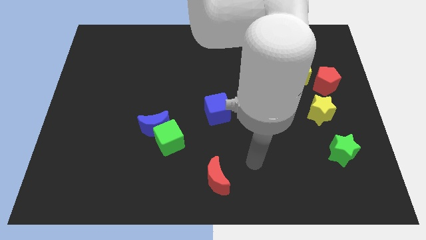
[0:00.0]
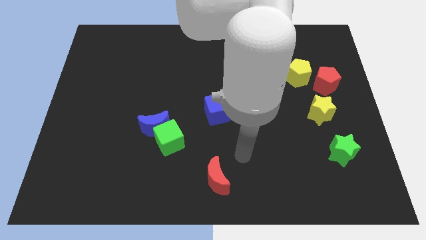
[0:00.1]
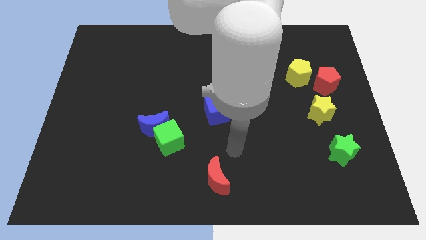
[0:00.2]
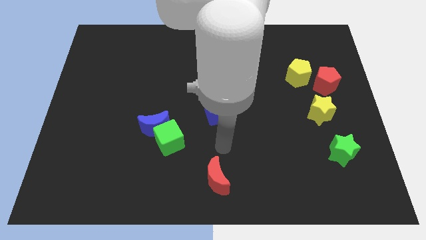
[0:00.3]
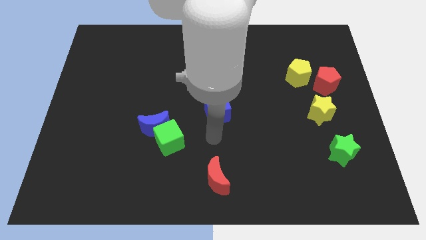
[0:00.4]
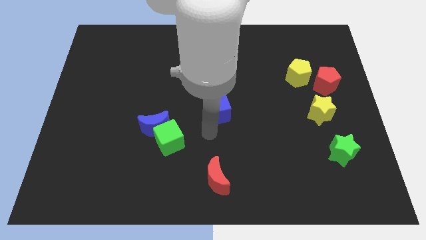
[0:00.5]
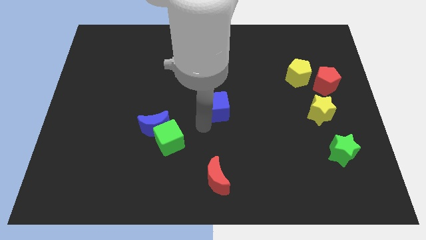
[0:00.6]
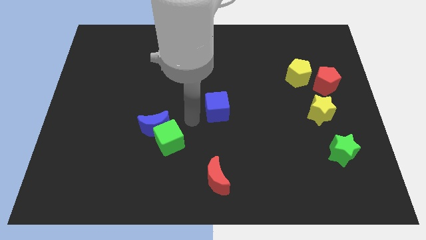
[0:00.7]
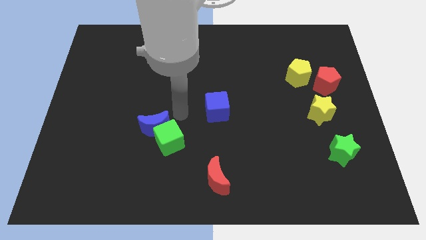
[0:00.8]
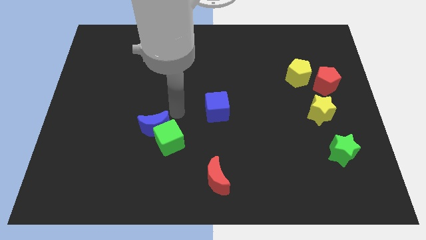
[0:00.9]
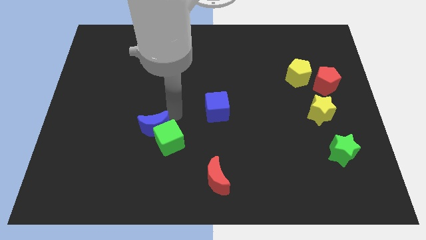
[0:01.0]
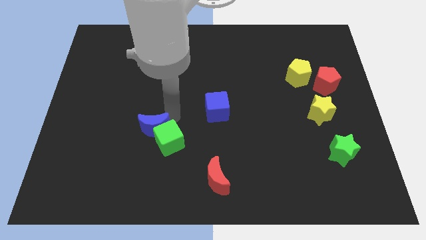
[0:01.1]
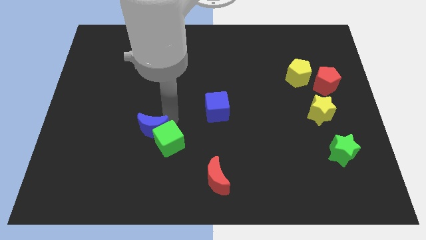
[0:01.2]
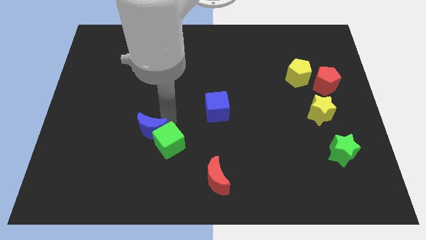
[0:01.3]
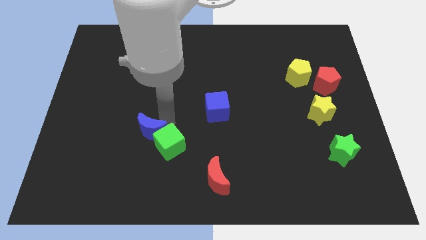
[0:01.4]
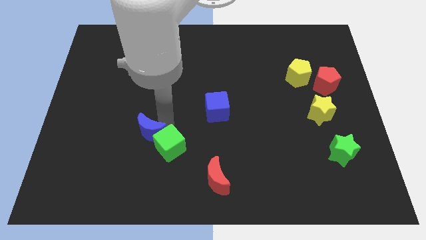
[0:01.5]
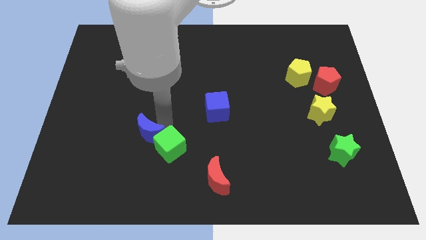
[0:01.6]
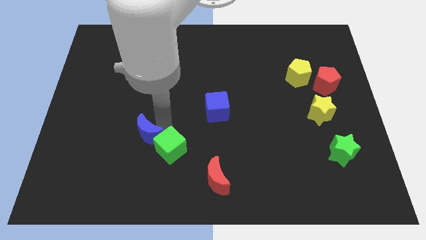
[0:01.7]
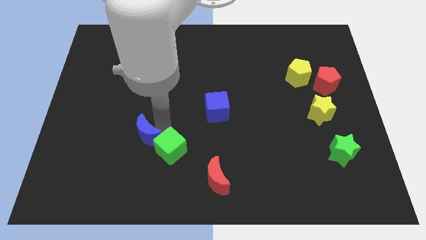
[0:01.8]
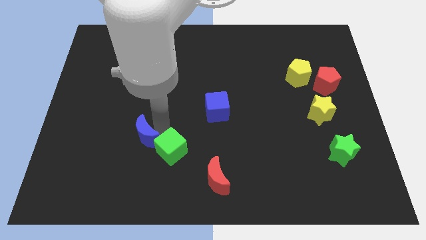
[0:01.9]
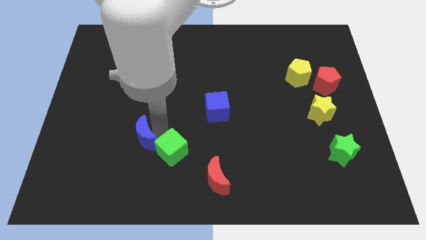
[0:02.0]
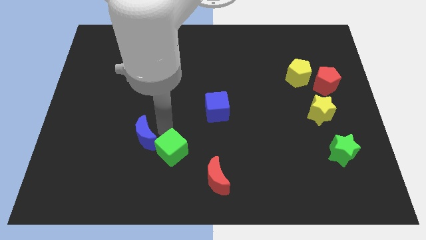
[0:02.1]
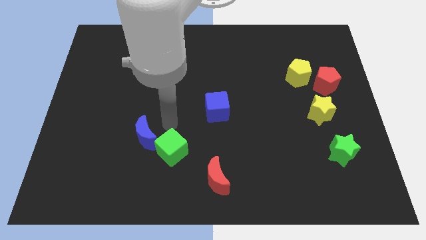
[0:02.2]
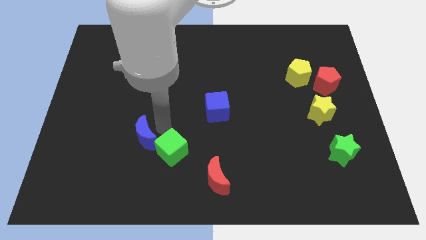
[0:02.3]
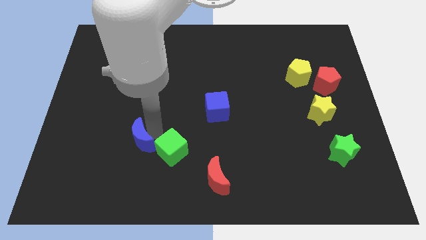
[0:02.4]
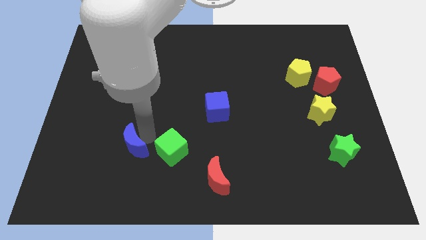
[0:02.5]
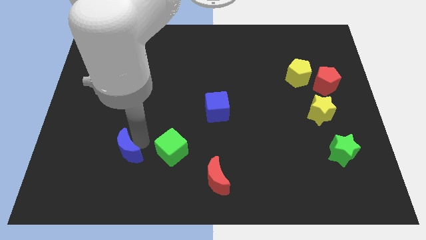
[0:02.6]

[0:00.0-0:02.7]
slightly slide the blue moon downwards and left

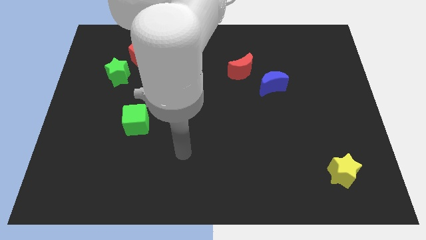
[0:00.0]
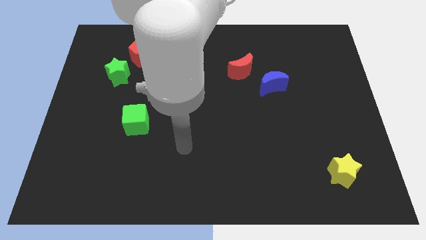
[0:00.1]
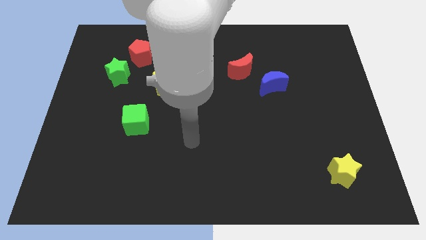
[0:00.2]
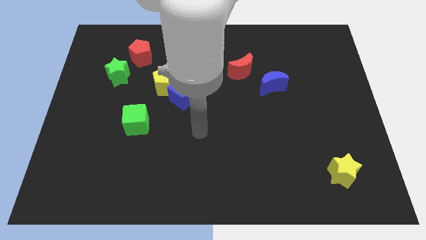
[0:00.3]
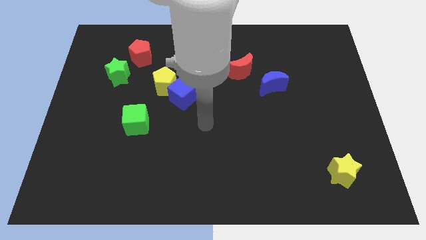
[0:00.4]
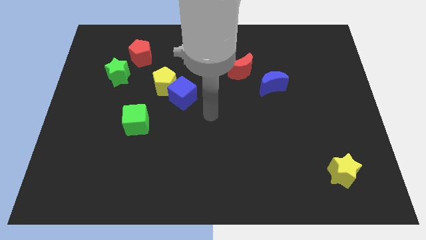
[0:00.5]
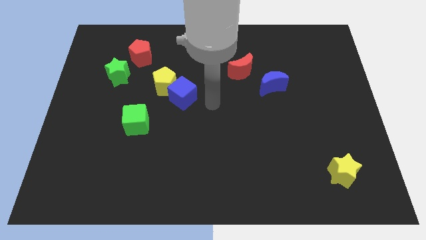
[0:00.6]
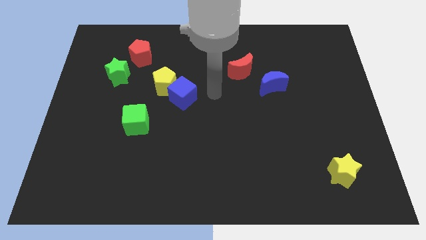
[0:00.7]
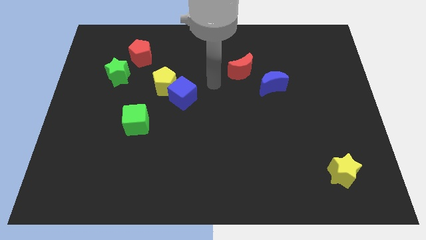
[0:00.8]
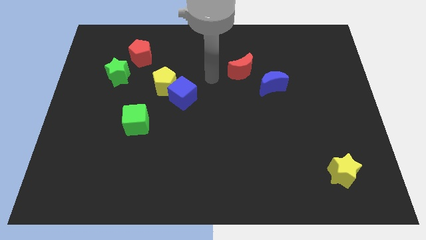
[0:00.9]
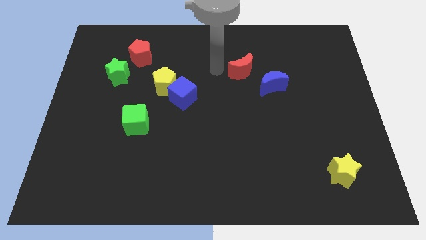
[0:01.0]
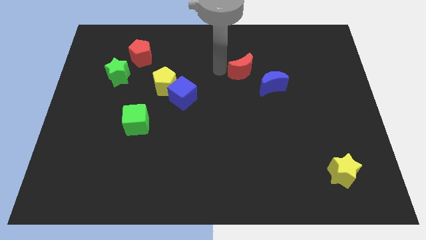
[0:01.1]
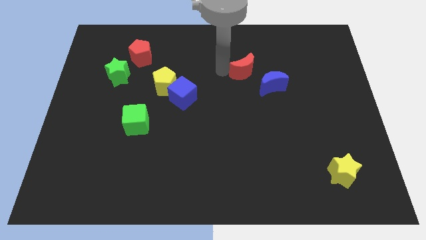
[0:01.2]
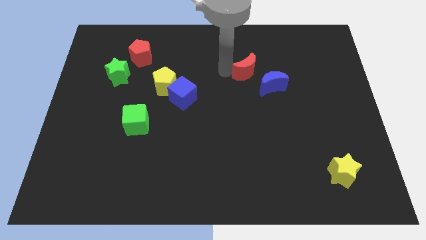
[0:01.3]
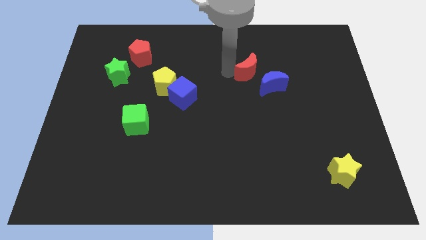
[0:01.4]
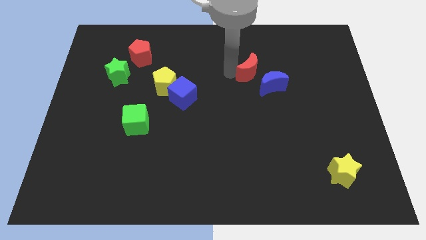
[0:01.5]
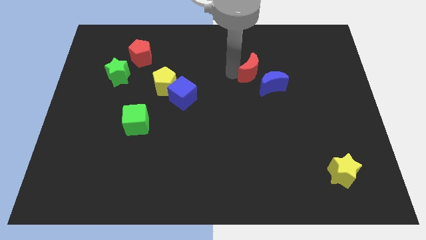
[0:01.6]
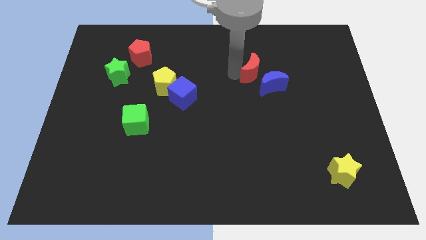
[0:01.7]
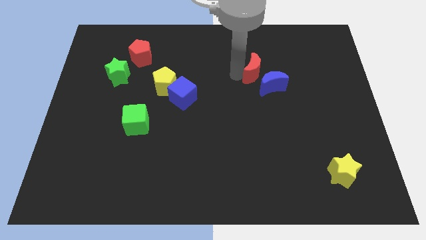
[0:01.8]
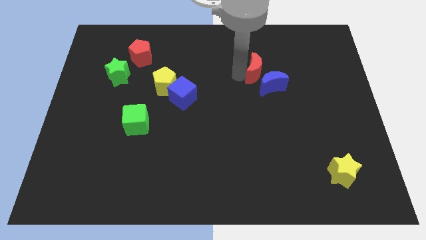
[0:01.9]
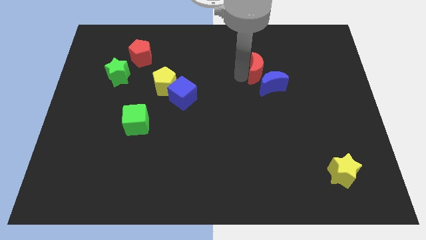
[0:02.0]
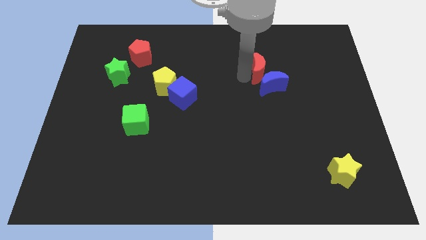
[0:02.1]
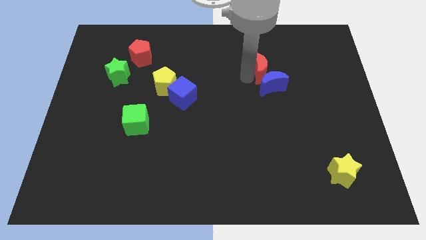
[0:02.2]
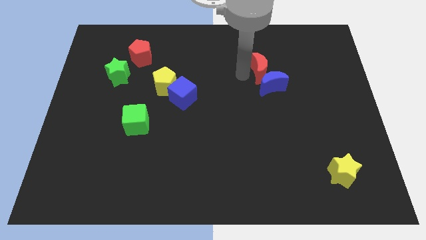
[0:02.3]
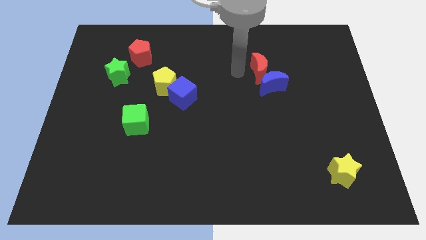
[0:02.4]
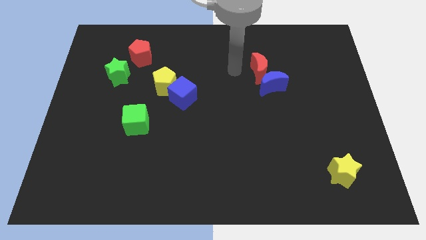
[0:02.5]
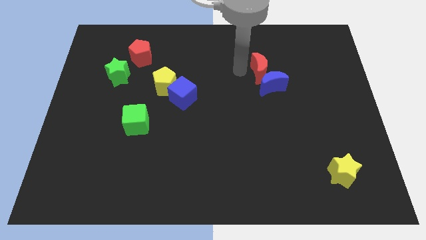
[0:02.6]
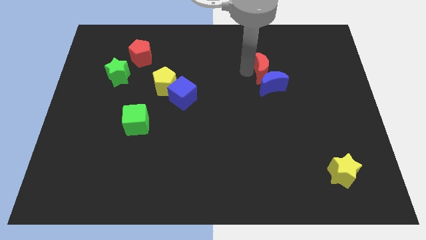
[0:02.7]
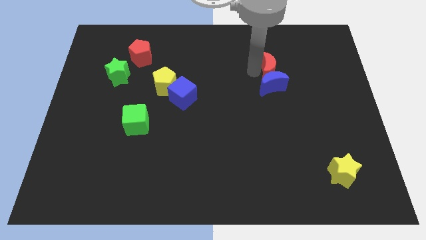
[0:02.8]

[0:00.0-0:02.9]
move the red moon to the right slightly

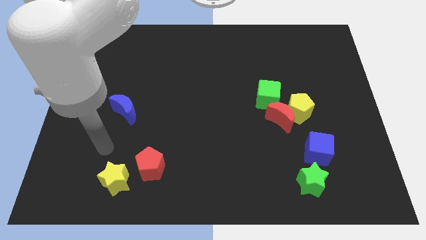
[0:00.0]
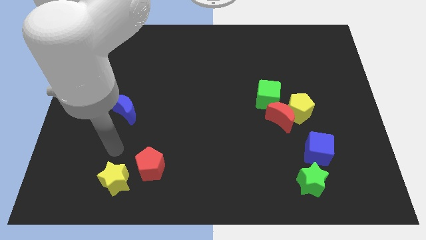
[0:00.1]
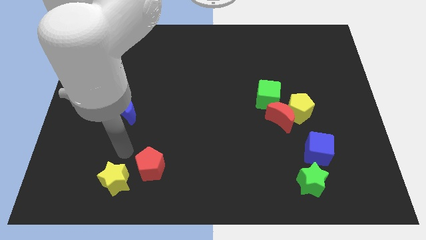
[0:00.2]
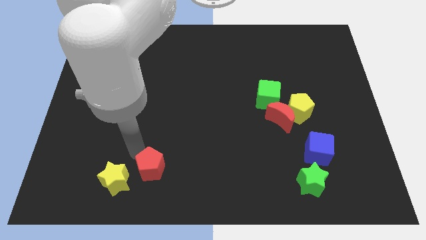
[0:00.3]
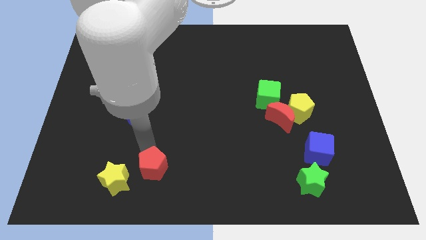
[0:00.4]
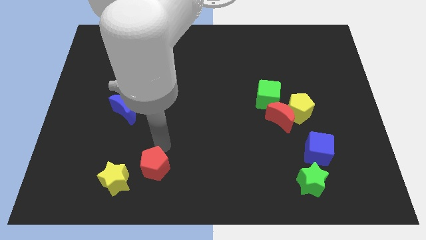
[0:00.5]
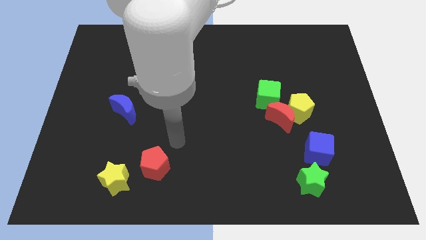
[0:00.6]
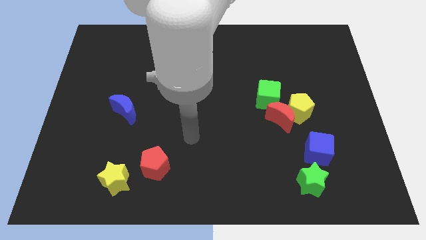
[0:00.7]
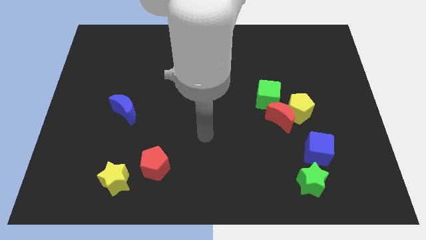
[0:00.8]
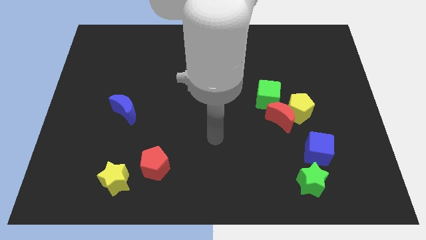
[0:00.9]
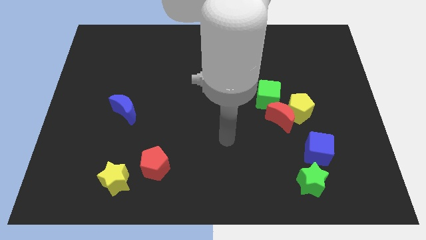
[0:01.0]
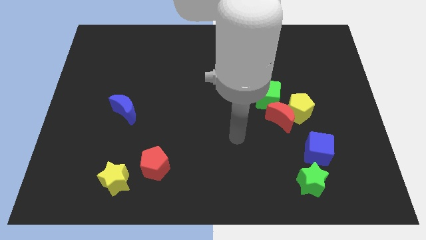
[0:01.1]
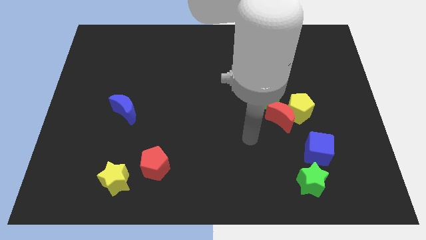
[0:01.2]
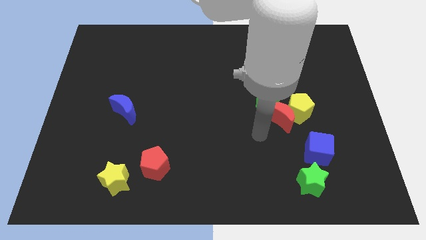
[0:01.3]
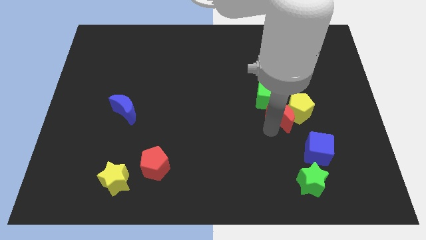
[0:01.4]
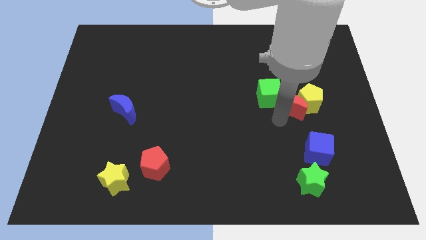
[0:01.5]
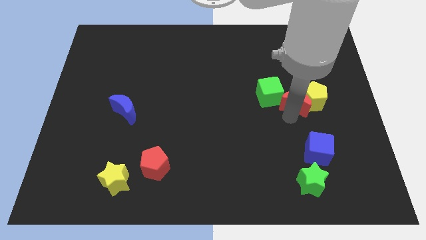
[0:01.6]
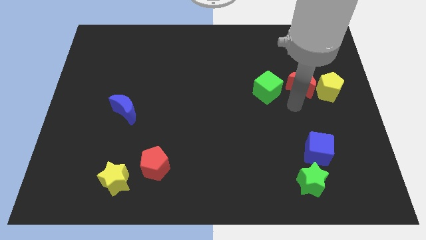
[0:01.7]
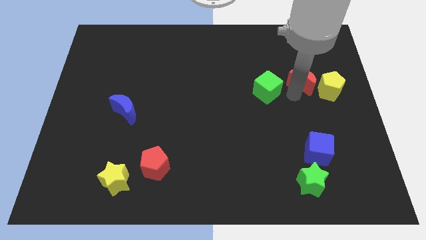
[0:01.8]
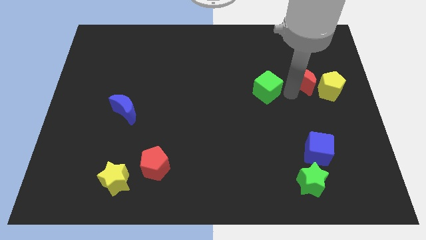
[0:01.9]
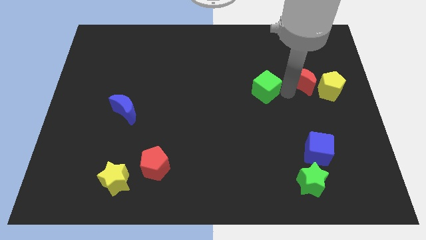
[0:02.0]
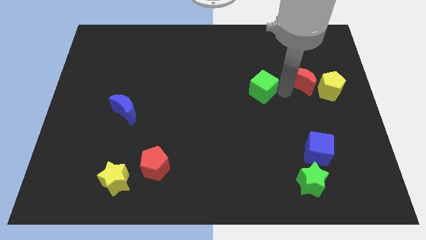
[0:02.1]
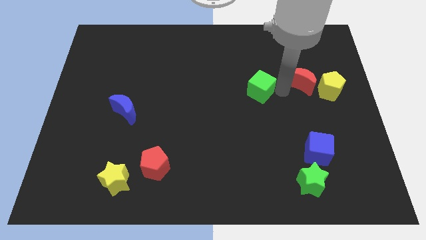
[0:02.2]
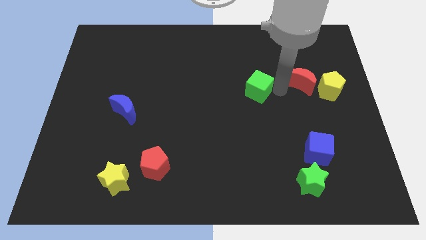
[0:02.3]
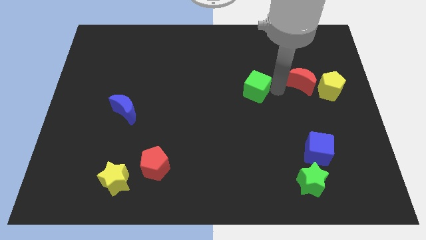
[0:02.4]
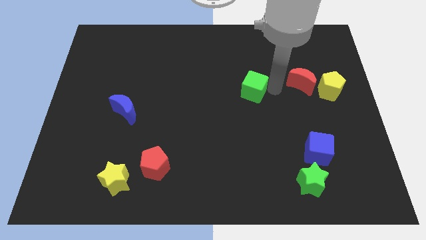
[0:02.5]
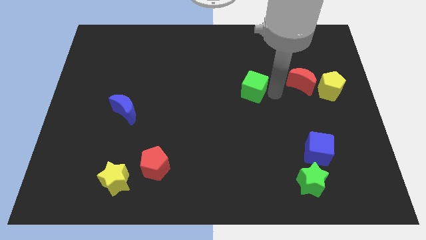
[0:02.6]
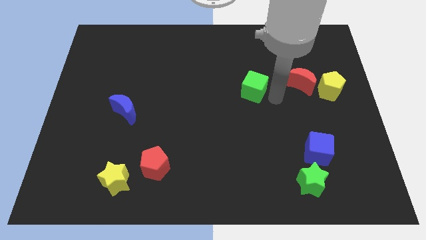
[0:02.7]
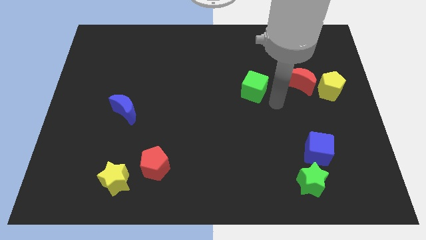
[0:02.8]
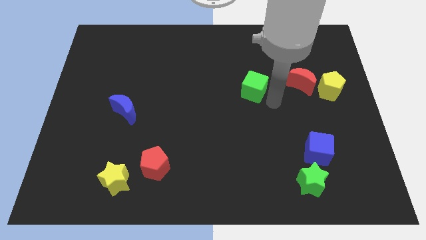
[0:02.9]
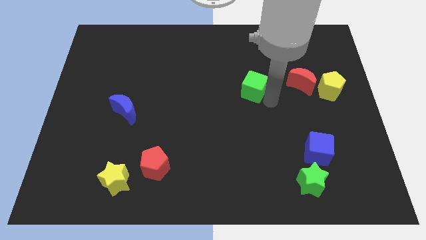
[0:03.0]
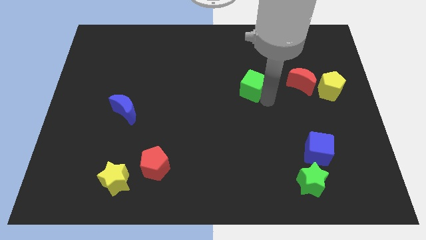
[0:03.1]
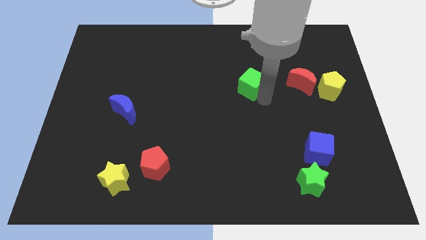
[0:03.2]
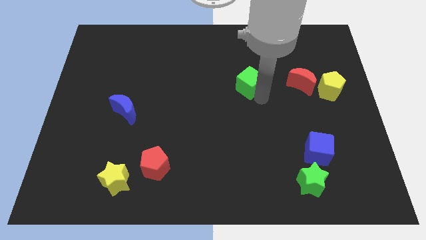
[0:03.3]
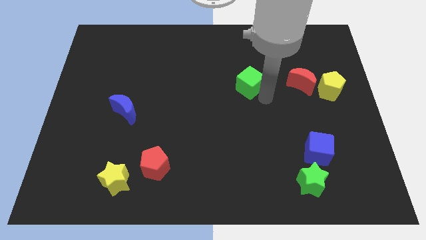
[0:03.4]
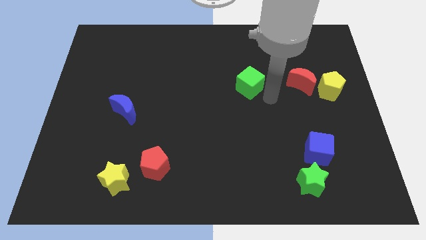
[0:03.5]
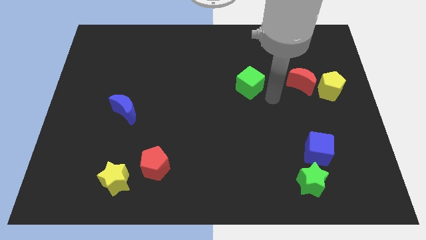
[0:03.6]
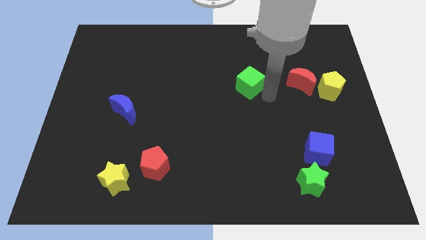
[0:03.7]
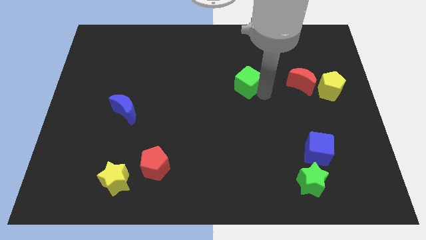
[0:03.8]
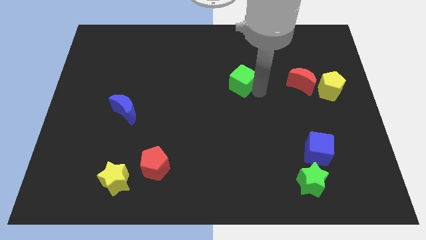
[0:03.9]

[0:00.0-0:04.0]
move the green cube a bit diagonally upwards and to the left
